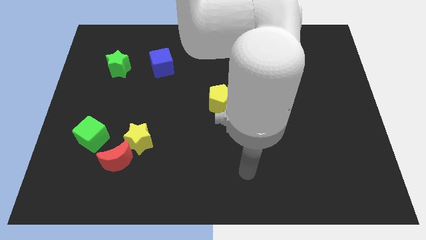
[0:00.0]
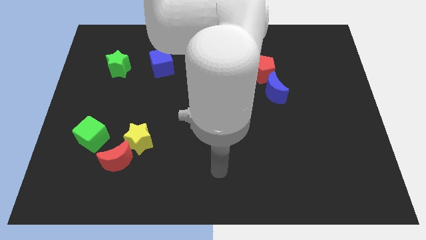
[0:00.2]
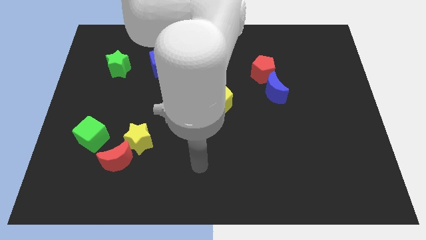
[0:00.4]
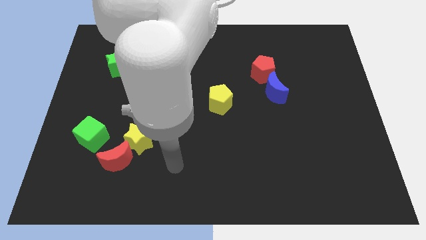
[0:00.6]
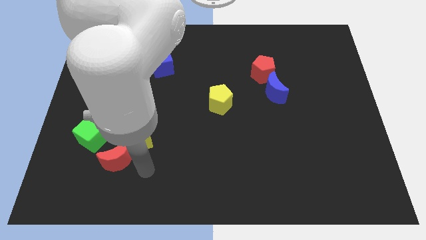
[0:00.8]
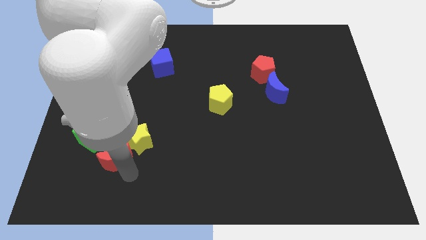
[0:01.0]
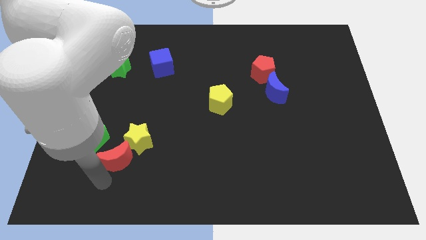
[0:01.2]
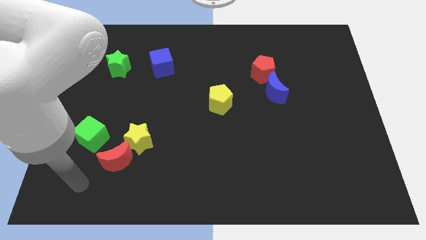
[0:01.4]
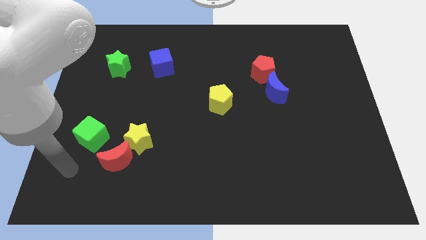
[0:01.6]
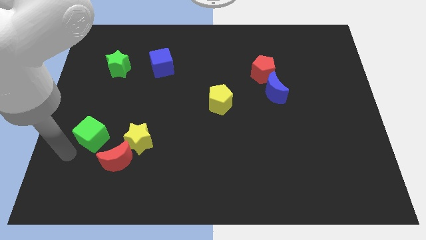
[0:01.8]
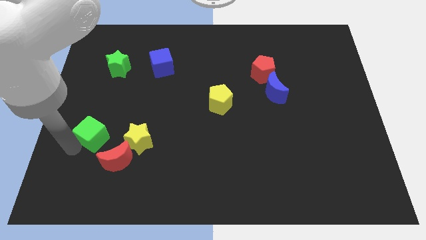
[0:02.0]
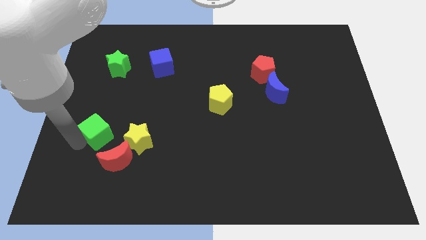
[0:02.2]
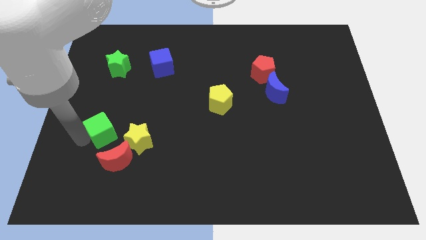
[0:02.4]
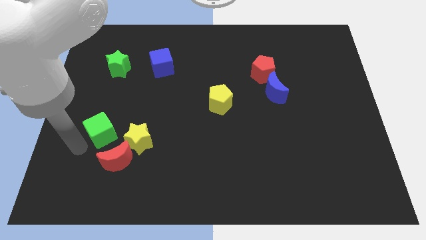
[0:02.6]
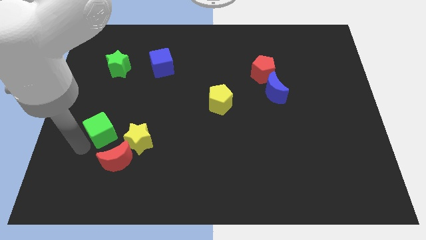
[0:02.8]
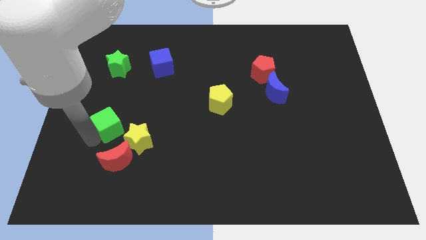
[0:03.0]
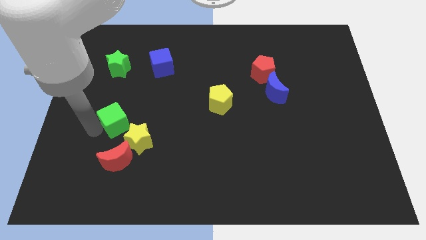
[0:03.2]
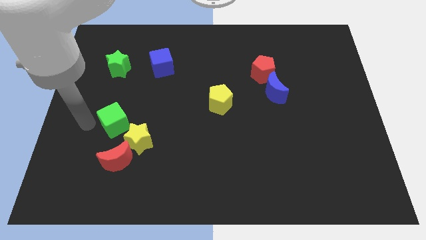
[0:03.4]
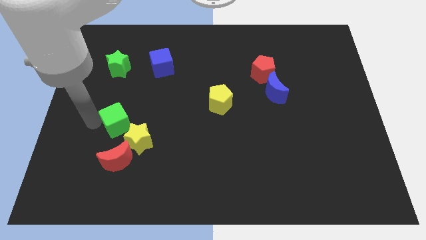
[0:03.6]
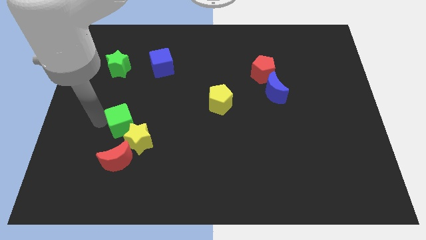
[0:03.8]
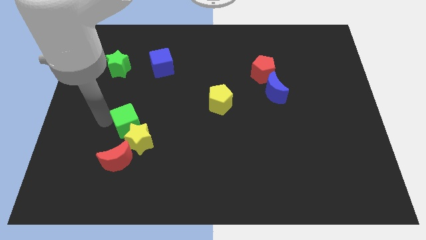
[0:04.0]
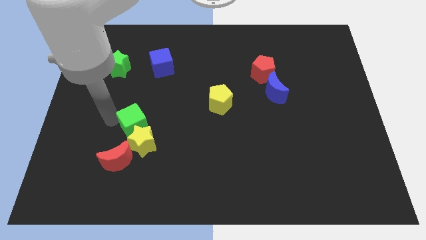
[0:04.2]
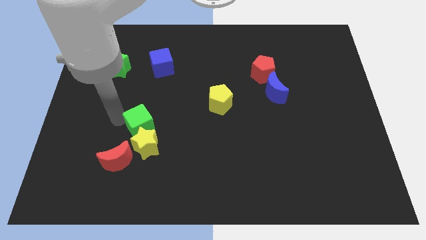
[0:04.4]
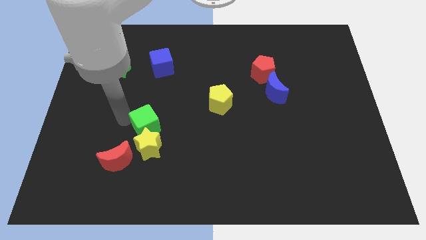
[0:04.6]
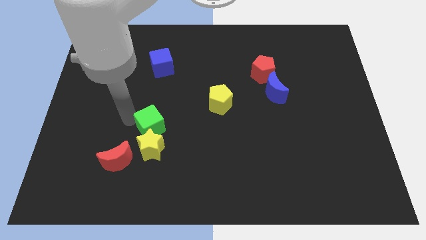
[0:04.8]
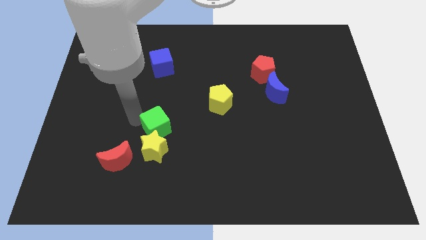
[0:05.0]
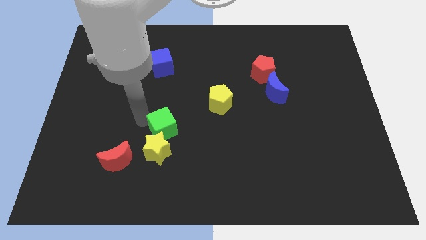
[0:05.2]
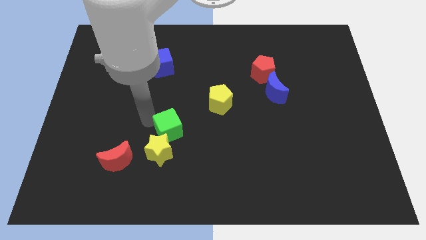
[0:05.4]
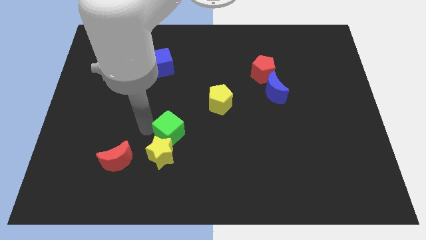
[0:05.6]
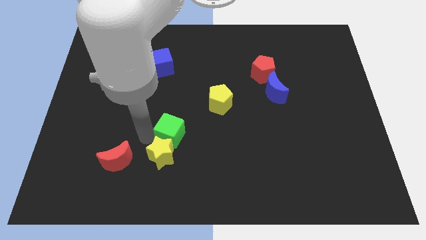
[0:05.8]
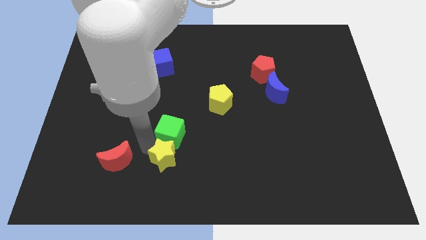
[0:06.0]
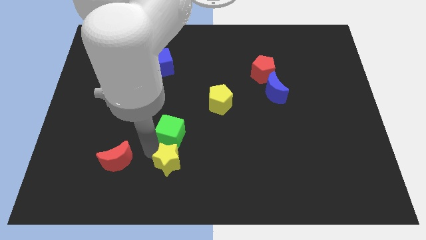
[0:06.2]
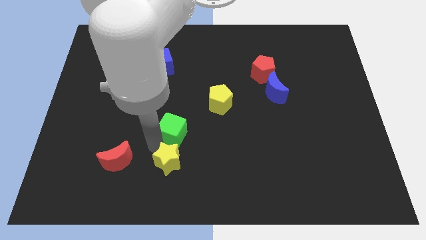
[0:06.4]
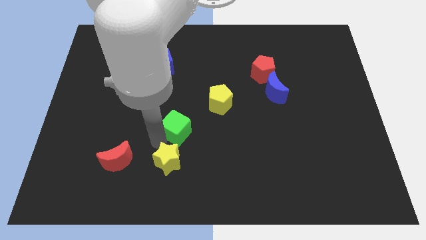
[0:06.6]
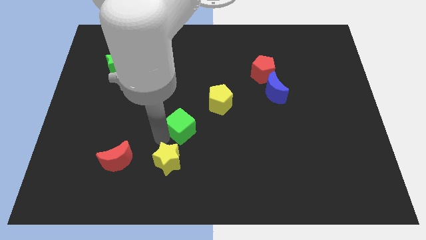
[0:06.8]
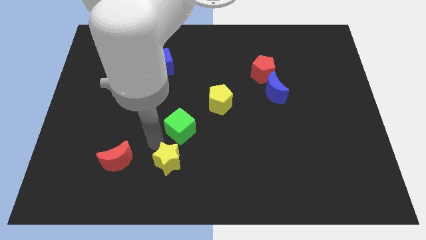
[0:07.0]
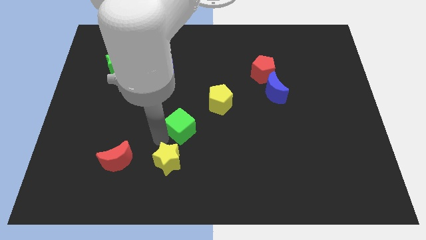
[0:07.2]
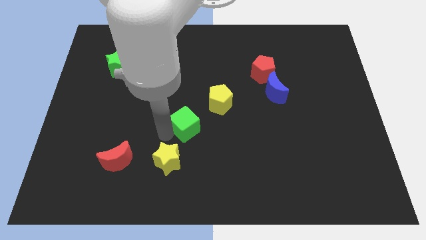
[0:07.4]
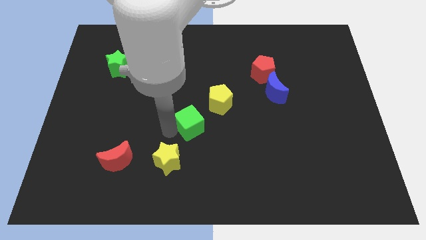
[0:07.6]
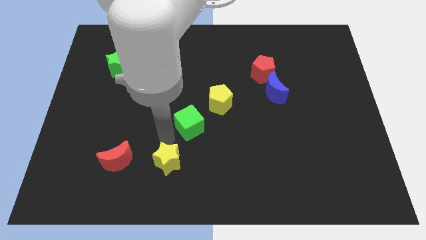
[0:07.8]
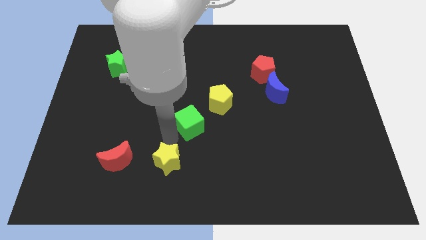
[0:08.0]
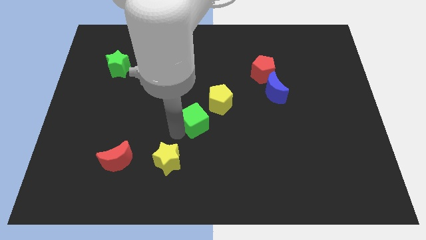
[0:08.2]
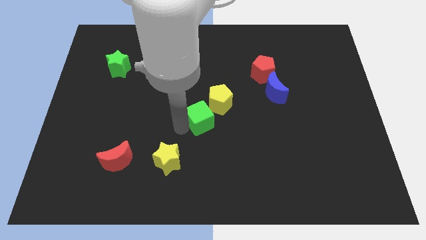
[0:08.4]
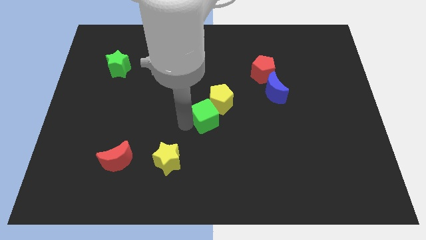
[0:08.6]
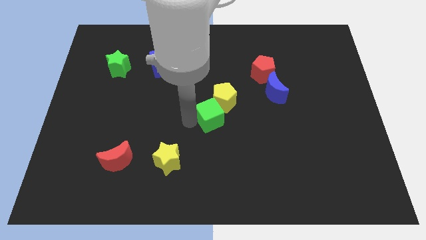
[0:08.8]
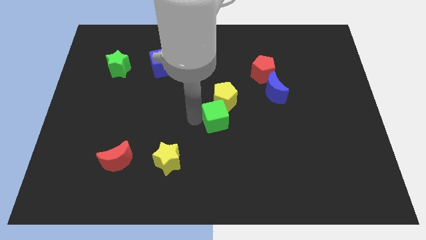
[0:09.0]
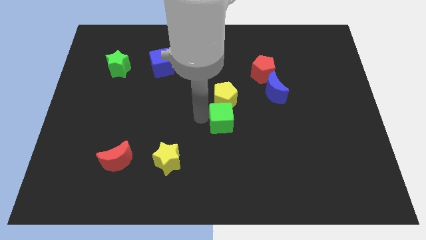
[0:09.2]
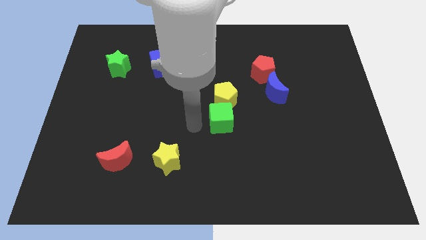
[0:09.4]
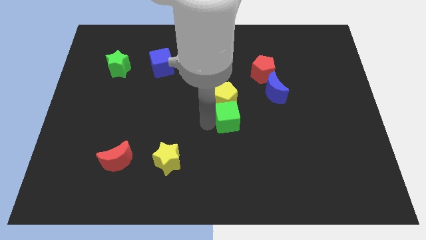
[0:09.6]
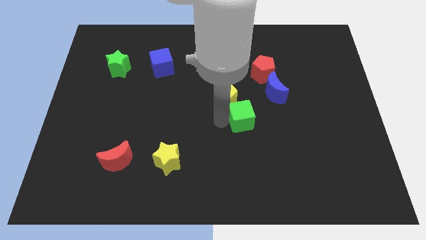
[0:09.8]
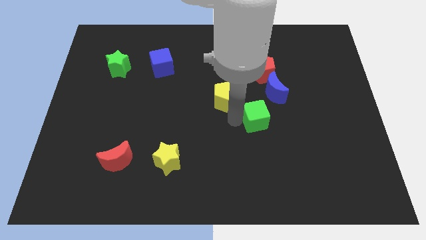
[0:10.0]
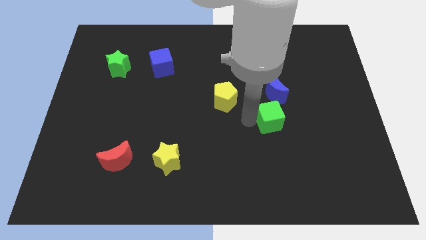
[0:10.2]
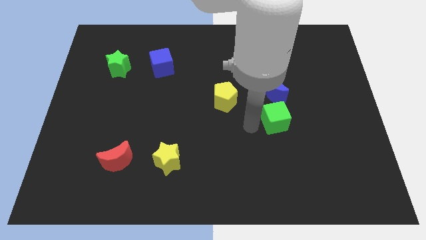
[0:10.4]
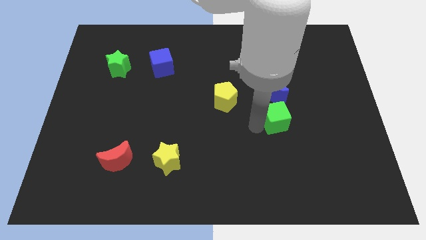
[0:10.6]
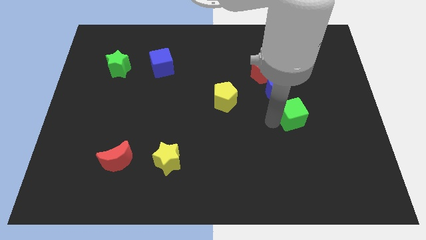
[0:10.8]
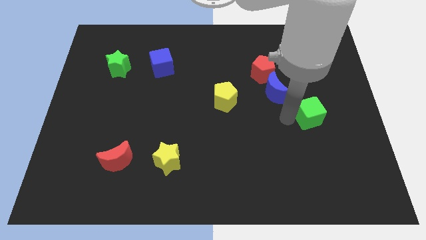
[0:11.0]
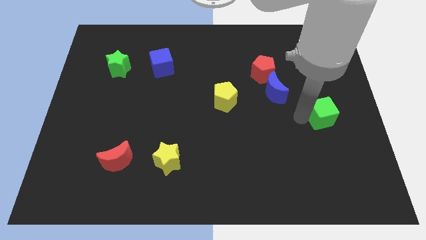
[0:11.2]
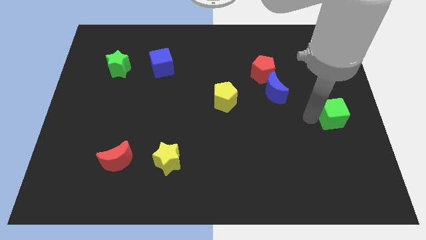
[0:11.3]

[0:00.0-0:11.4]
slide the green cube to the right side of the board

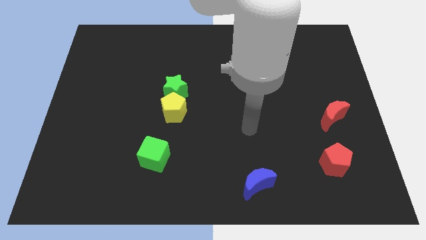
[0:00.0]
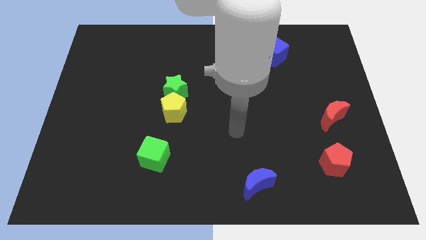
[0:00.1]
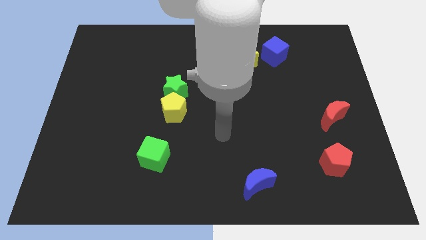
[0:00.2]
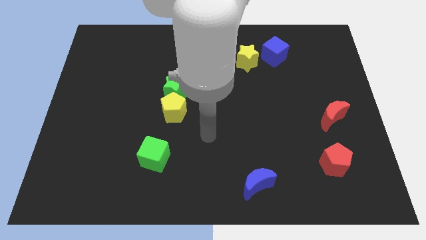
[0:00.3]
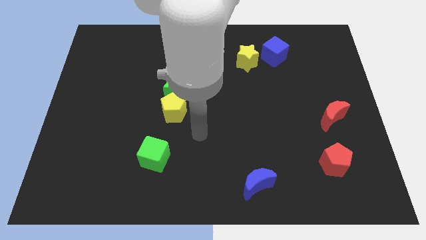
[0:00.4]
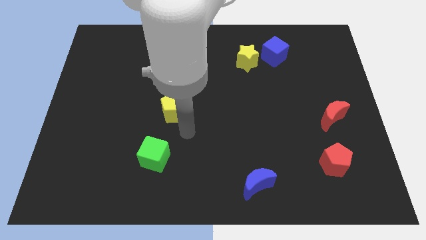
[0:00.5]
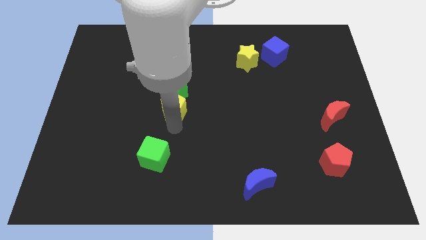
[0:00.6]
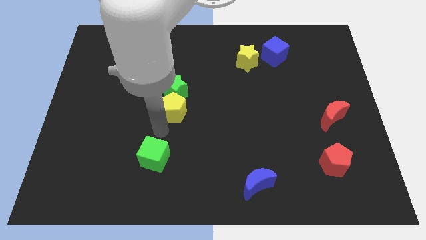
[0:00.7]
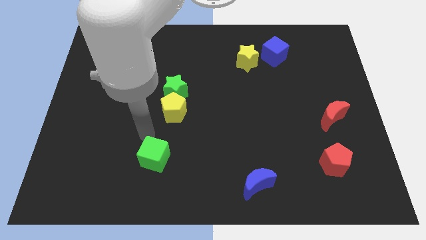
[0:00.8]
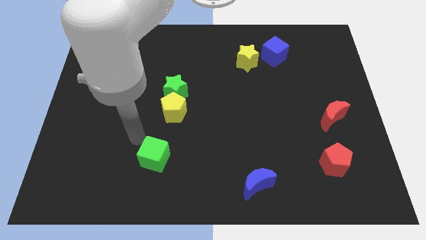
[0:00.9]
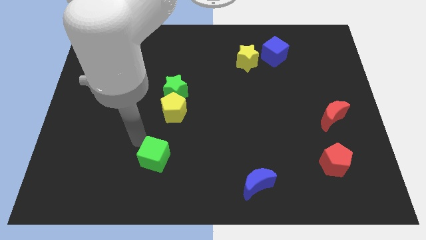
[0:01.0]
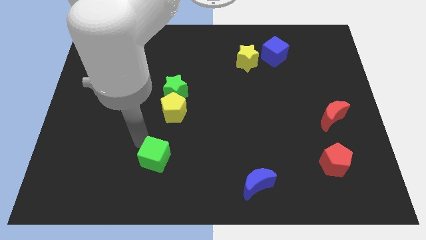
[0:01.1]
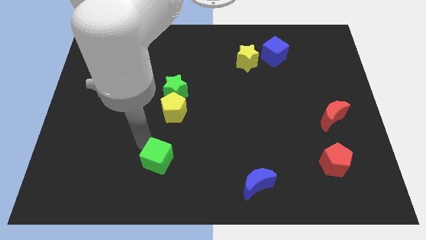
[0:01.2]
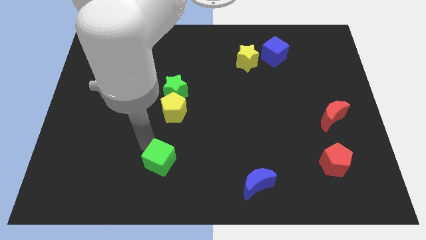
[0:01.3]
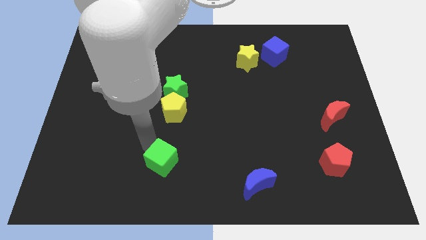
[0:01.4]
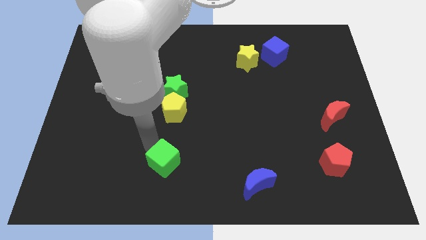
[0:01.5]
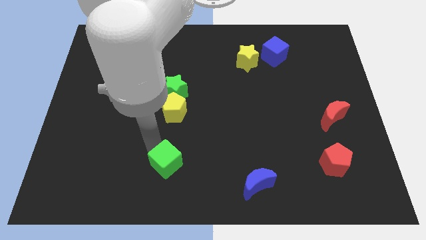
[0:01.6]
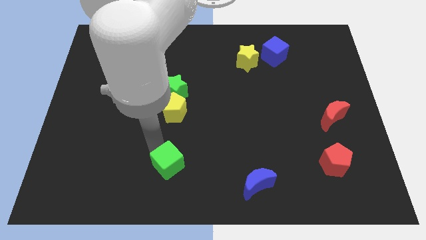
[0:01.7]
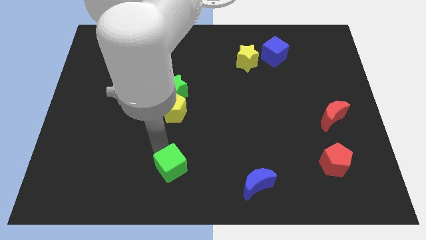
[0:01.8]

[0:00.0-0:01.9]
move the green cube to the bottom
